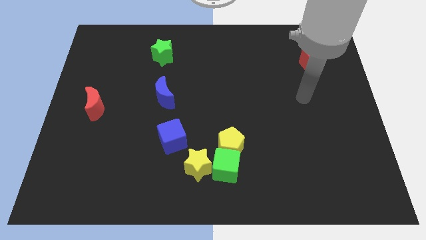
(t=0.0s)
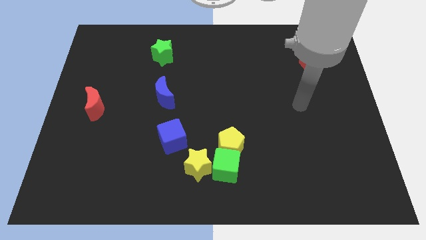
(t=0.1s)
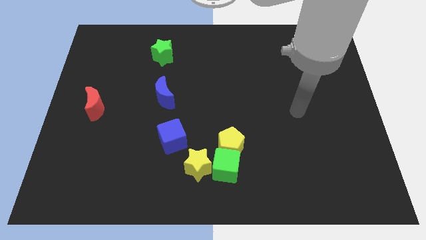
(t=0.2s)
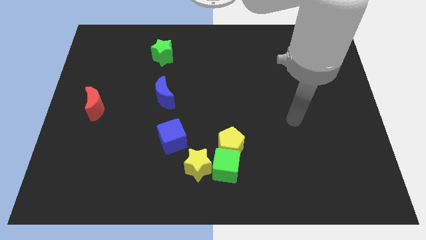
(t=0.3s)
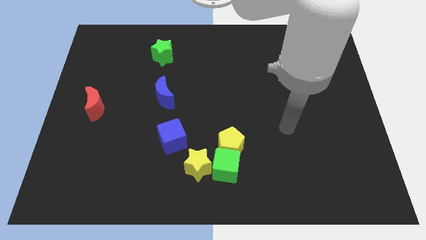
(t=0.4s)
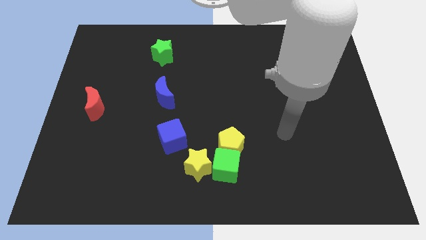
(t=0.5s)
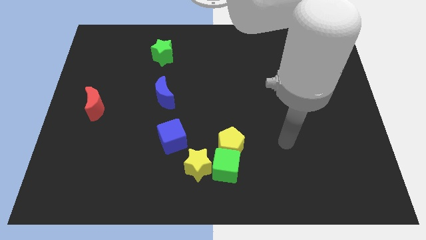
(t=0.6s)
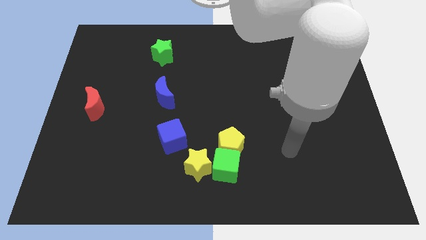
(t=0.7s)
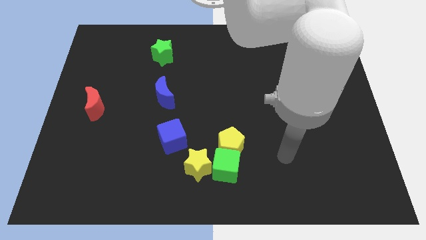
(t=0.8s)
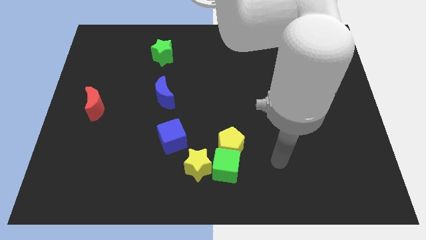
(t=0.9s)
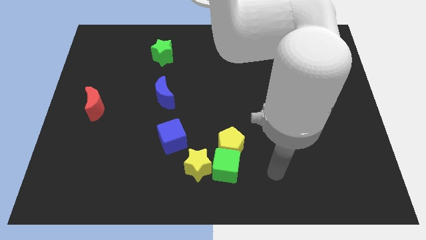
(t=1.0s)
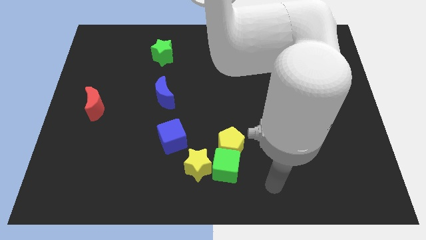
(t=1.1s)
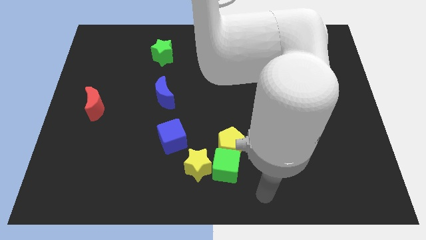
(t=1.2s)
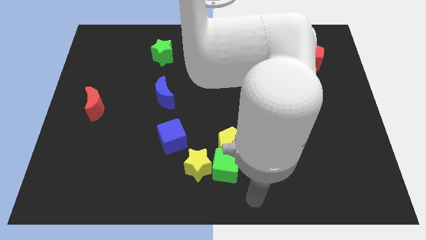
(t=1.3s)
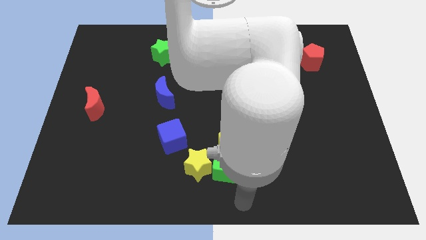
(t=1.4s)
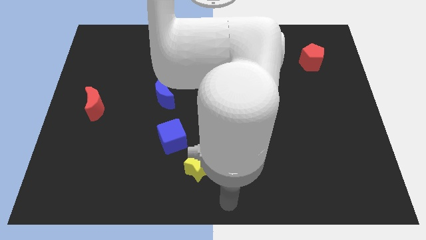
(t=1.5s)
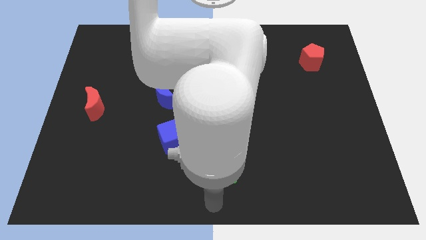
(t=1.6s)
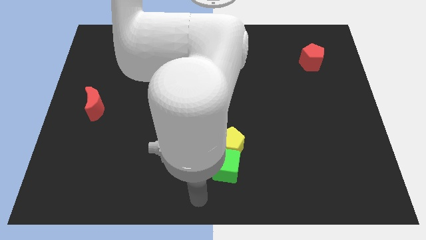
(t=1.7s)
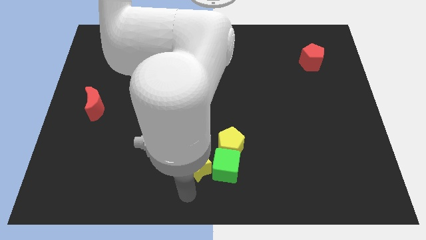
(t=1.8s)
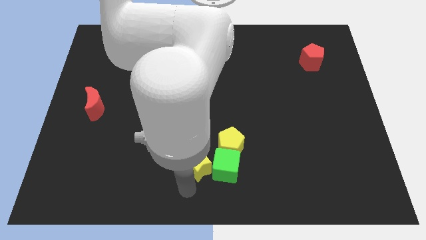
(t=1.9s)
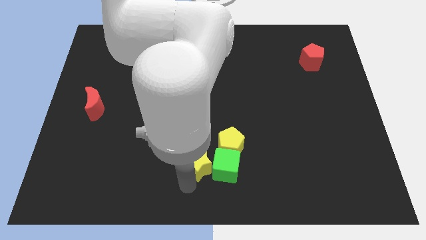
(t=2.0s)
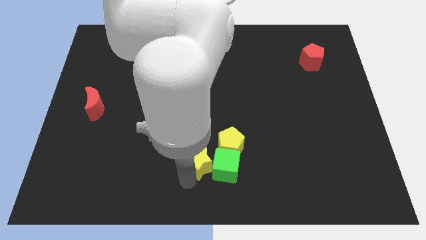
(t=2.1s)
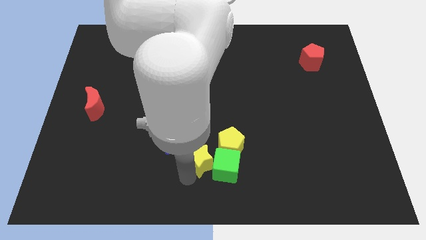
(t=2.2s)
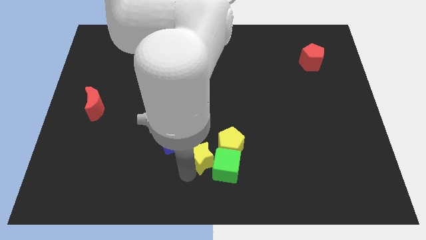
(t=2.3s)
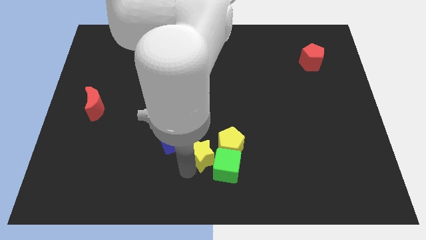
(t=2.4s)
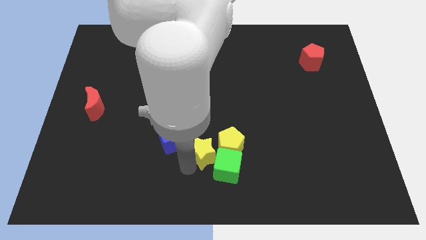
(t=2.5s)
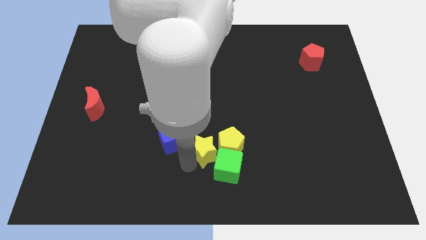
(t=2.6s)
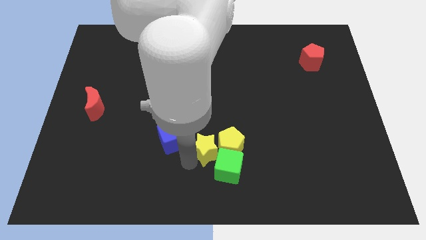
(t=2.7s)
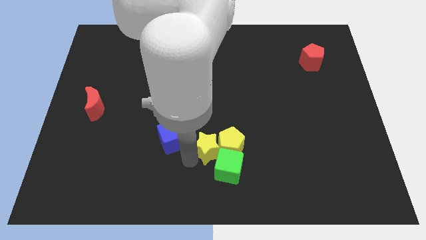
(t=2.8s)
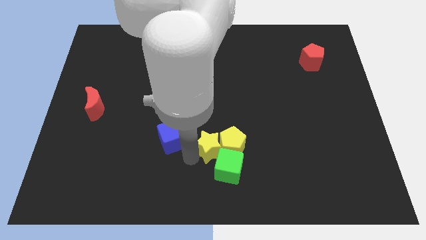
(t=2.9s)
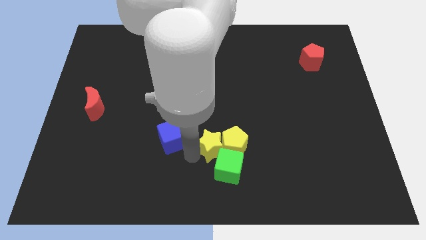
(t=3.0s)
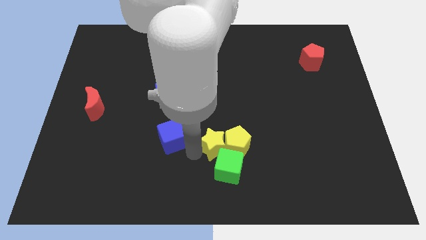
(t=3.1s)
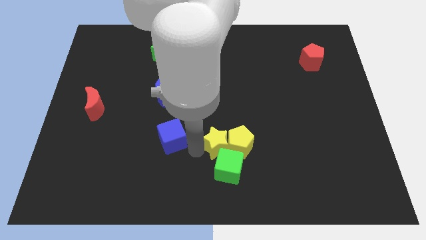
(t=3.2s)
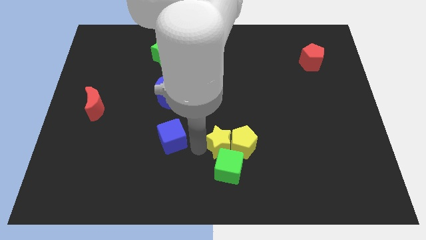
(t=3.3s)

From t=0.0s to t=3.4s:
push the yellow star a little bit up and right diagonally

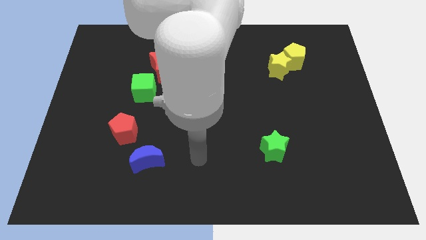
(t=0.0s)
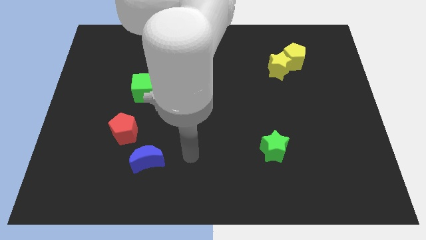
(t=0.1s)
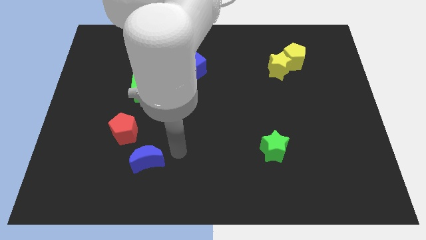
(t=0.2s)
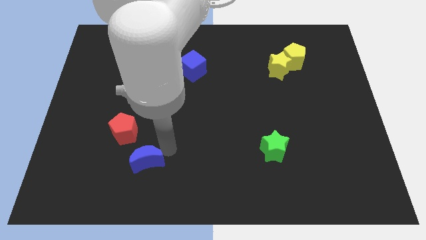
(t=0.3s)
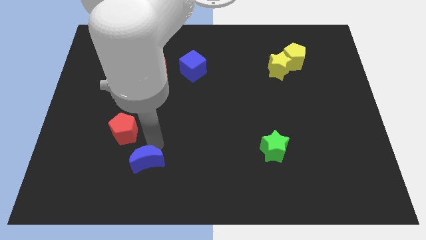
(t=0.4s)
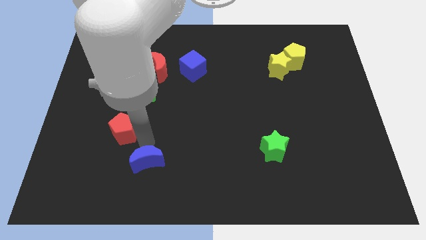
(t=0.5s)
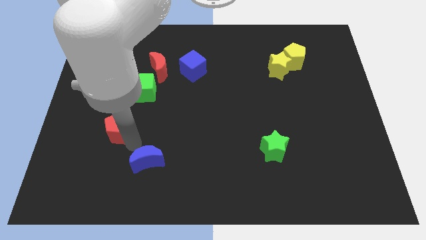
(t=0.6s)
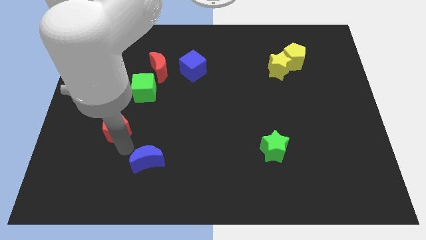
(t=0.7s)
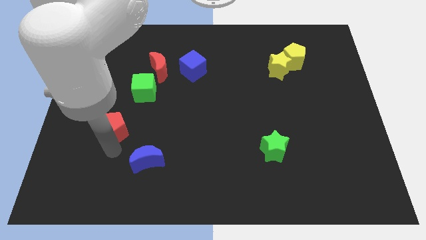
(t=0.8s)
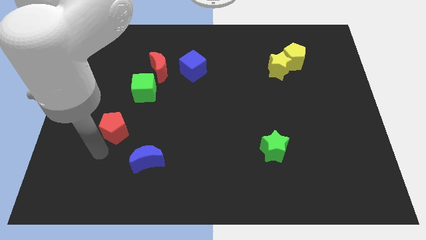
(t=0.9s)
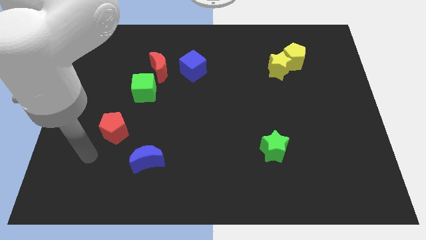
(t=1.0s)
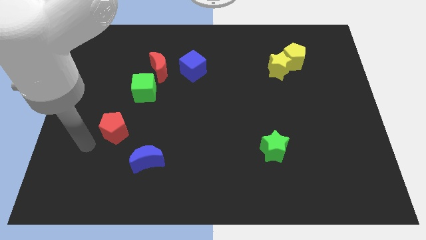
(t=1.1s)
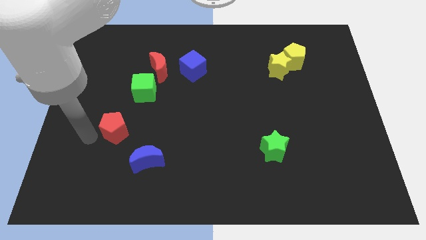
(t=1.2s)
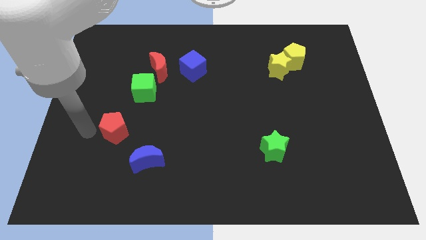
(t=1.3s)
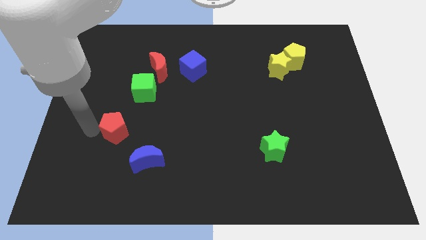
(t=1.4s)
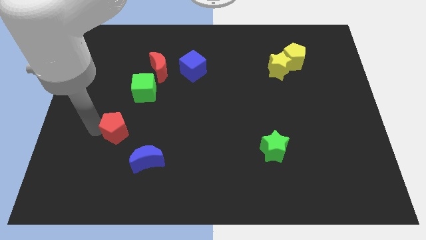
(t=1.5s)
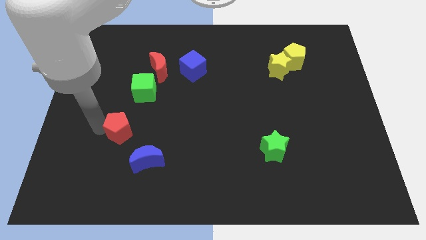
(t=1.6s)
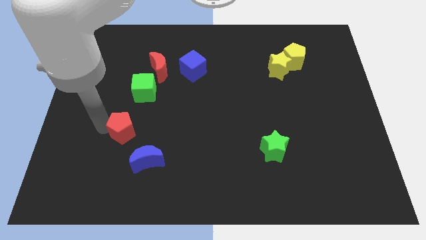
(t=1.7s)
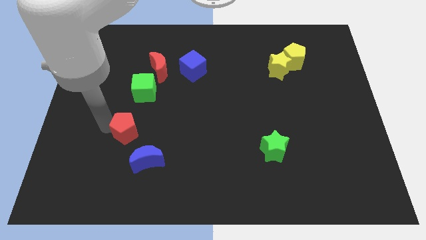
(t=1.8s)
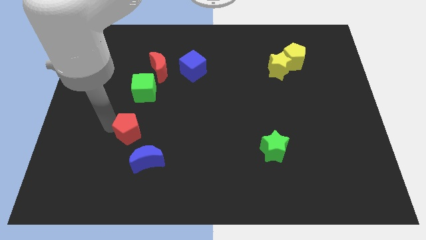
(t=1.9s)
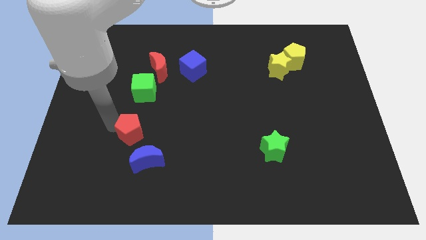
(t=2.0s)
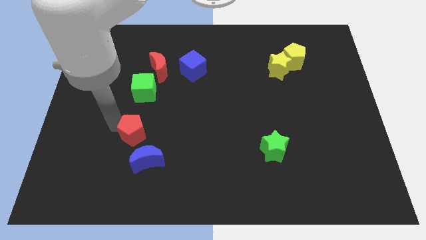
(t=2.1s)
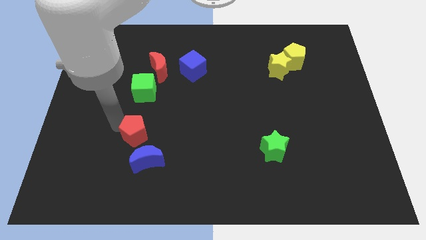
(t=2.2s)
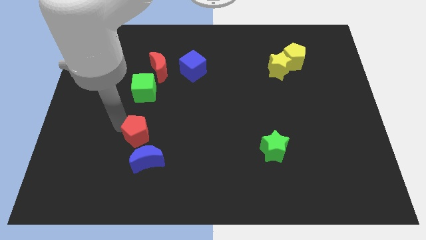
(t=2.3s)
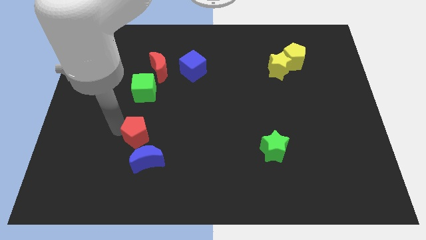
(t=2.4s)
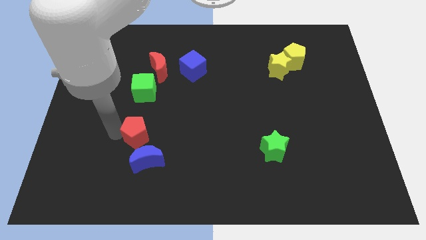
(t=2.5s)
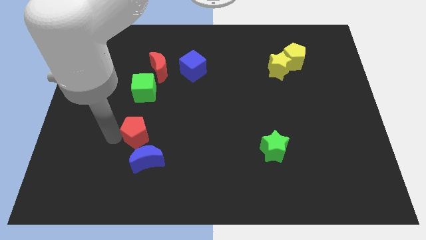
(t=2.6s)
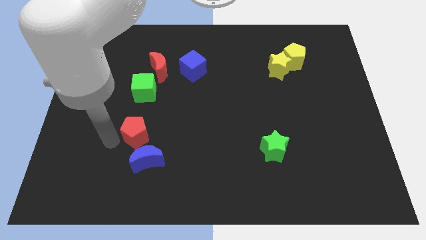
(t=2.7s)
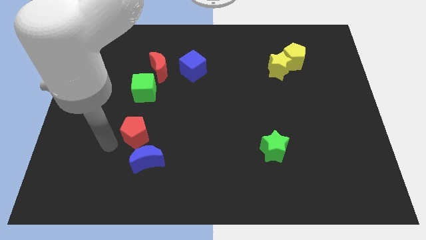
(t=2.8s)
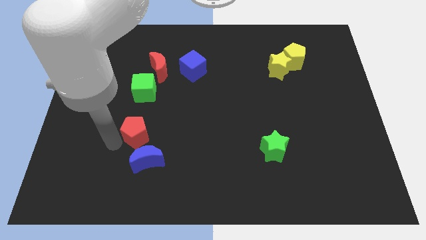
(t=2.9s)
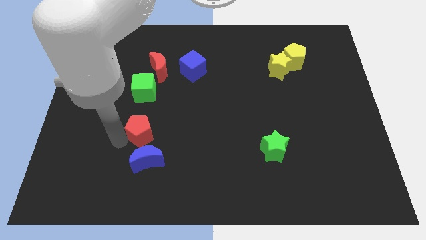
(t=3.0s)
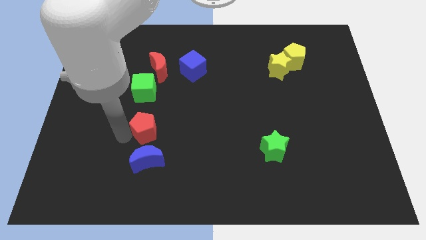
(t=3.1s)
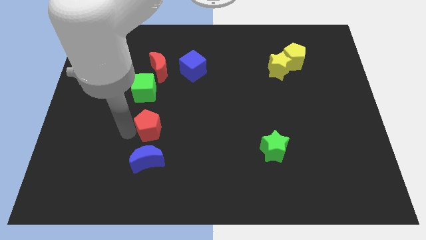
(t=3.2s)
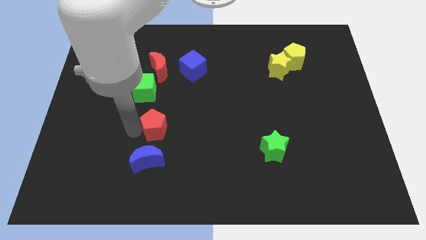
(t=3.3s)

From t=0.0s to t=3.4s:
slightly slide the red pentagon right

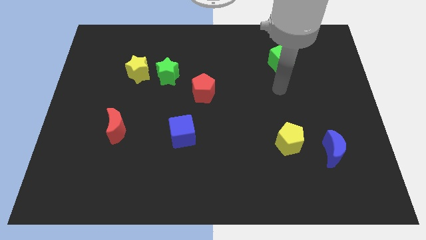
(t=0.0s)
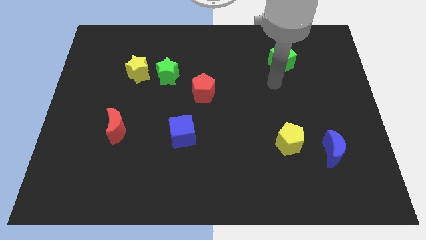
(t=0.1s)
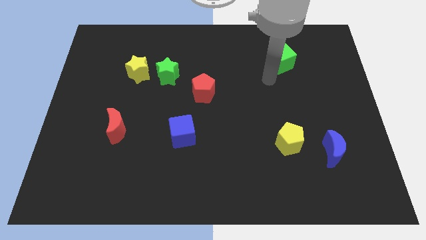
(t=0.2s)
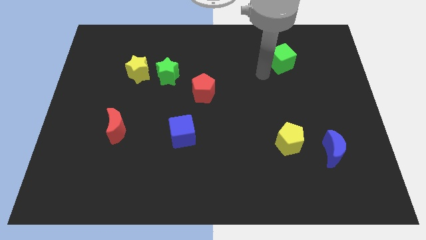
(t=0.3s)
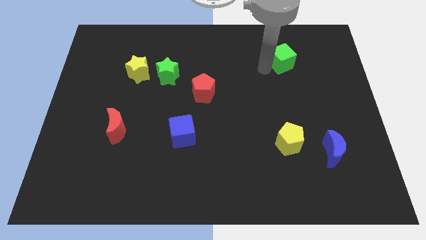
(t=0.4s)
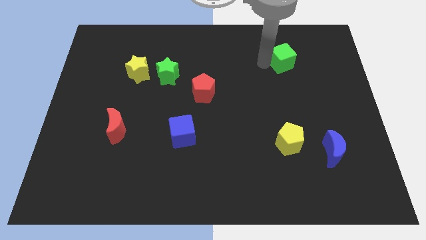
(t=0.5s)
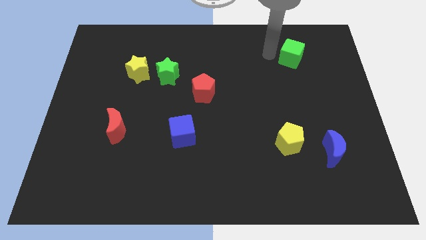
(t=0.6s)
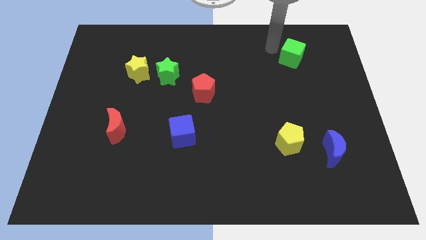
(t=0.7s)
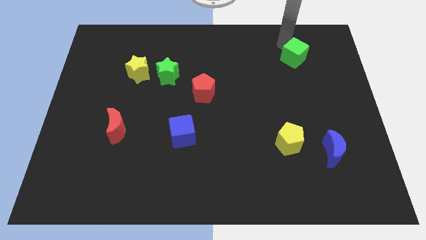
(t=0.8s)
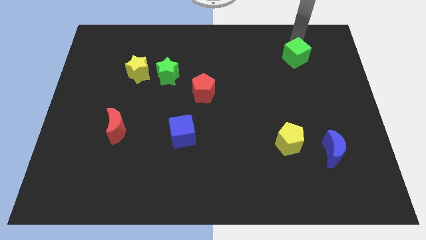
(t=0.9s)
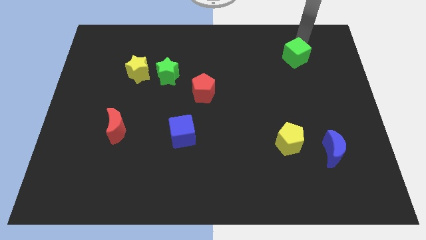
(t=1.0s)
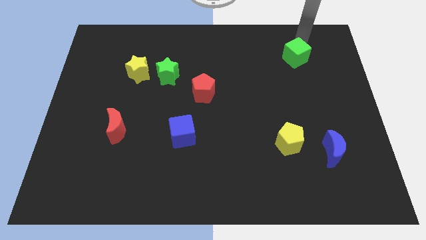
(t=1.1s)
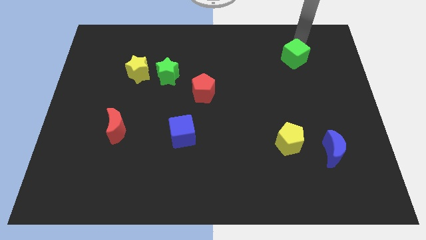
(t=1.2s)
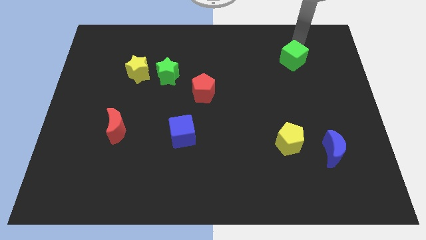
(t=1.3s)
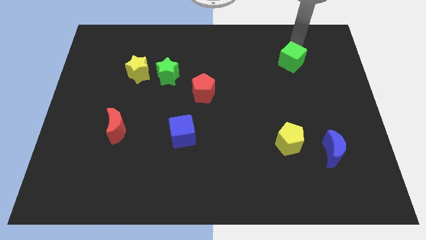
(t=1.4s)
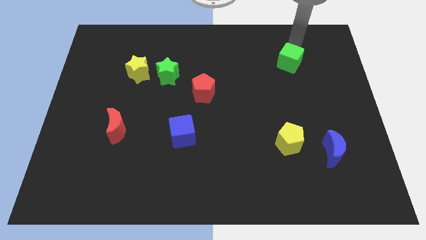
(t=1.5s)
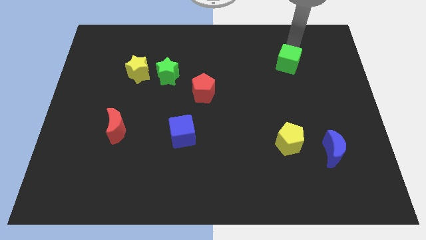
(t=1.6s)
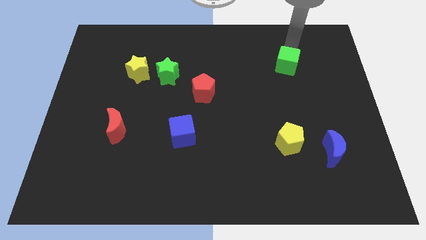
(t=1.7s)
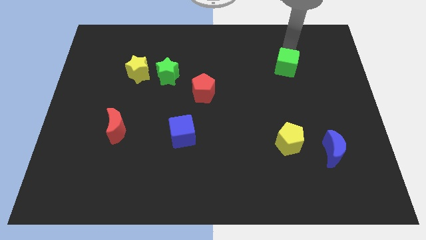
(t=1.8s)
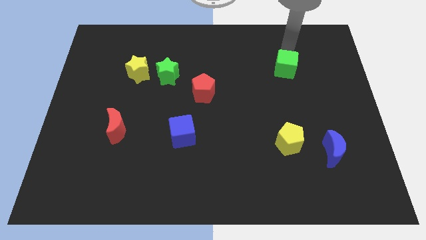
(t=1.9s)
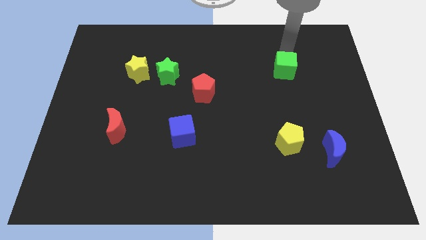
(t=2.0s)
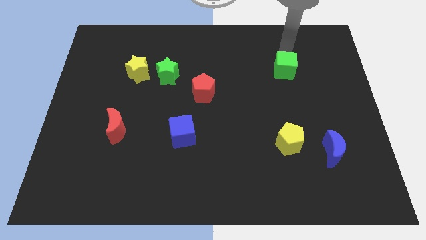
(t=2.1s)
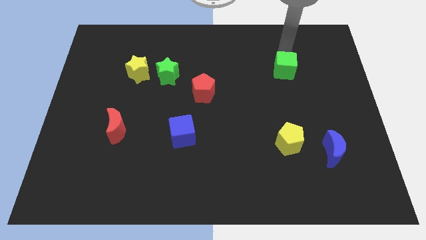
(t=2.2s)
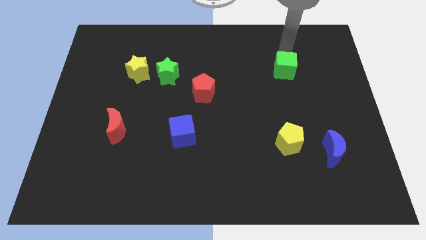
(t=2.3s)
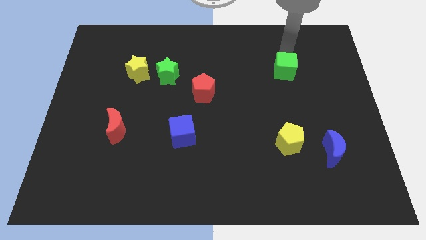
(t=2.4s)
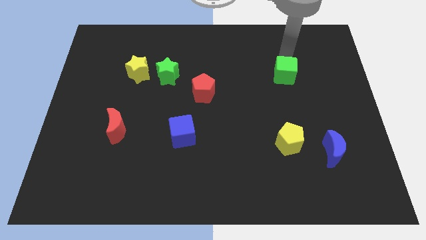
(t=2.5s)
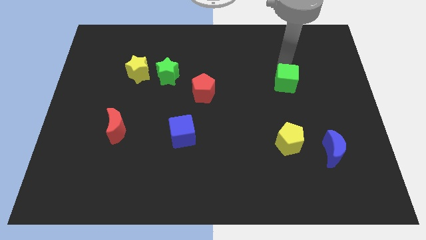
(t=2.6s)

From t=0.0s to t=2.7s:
push the green cube slightly down
